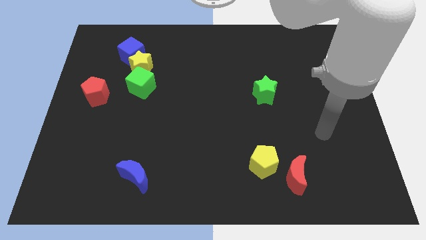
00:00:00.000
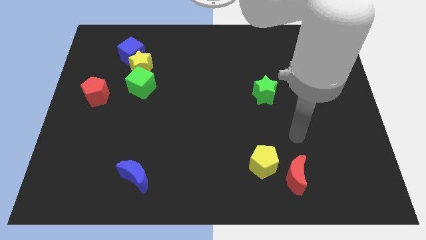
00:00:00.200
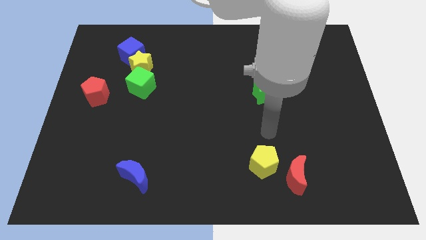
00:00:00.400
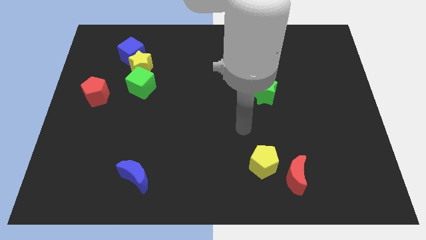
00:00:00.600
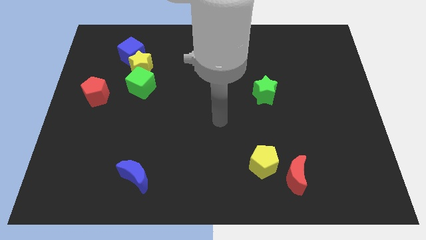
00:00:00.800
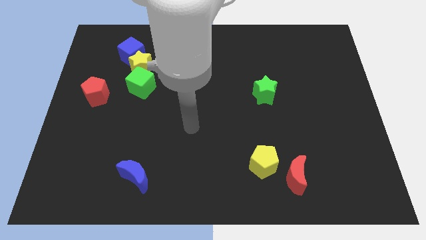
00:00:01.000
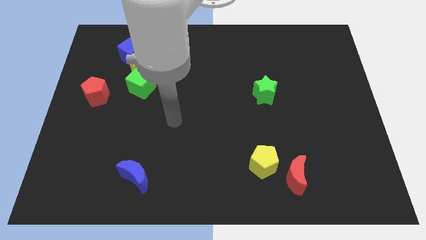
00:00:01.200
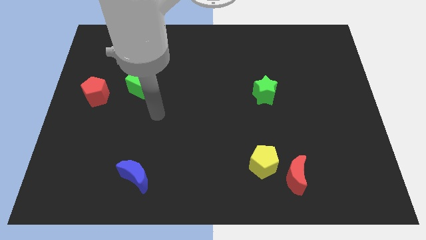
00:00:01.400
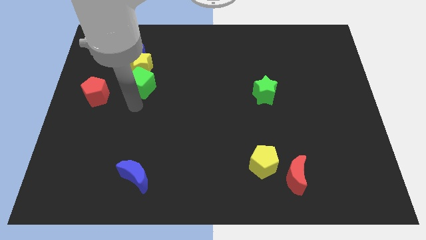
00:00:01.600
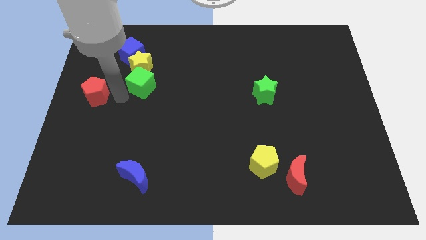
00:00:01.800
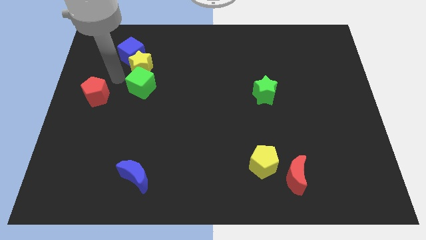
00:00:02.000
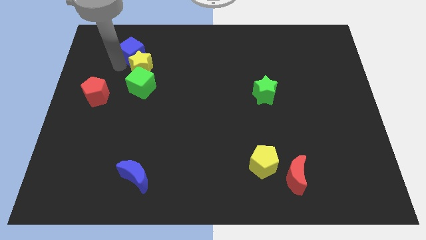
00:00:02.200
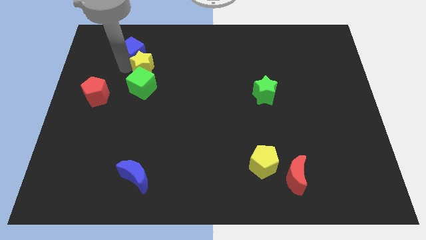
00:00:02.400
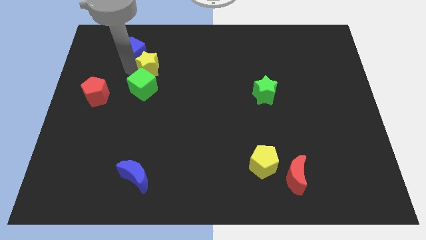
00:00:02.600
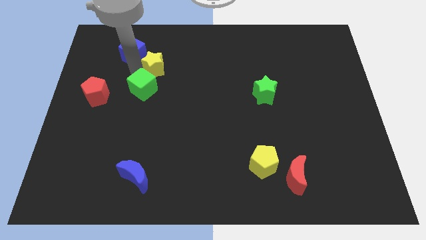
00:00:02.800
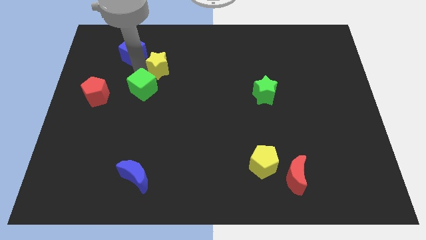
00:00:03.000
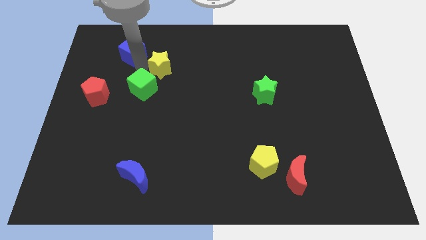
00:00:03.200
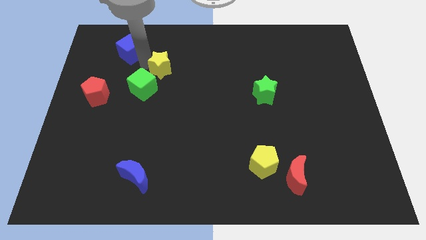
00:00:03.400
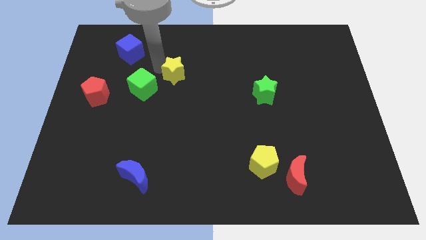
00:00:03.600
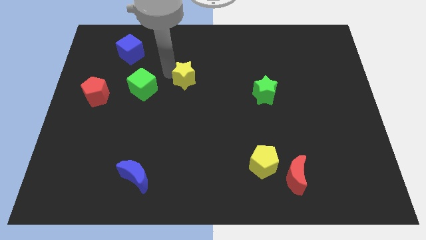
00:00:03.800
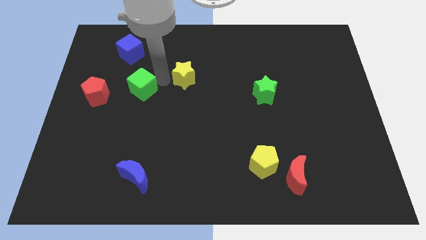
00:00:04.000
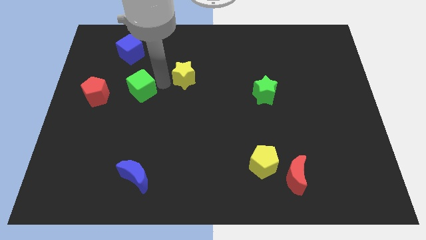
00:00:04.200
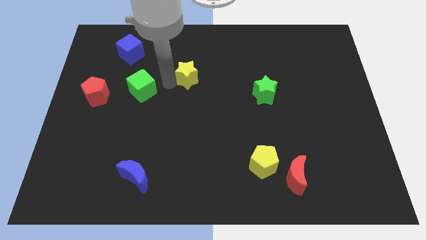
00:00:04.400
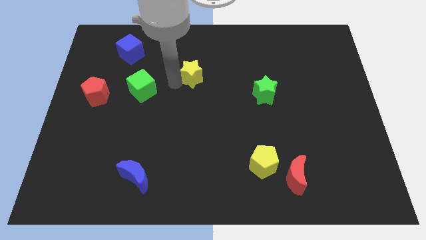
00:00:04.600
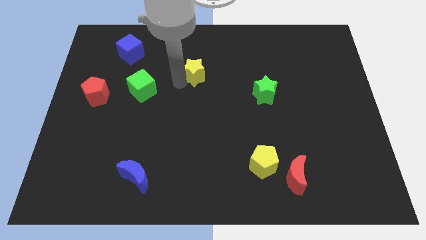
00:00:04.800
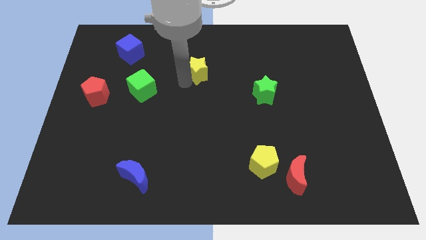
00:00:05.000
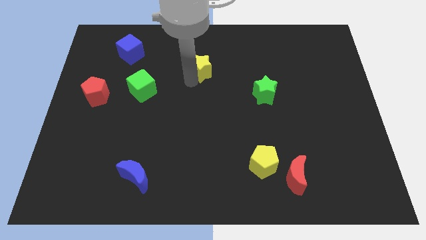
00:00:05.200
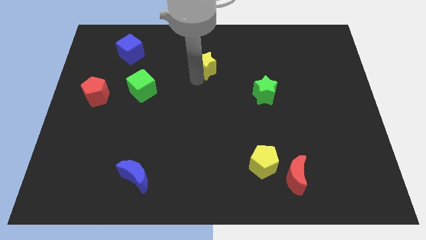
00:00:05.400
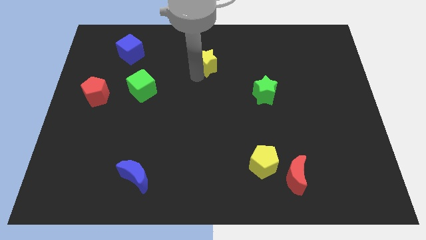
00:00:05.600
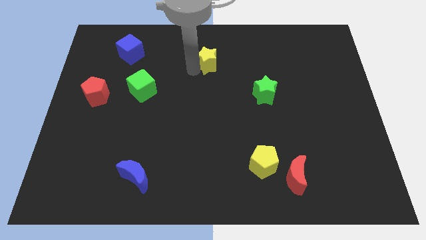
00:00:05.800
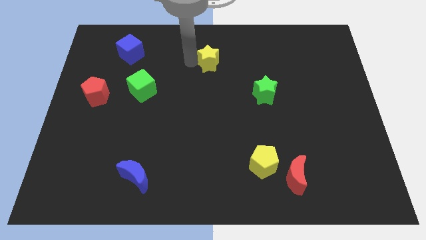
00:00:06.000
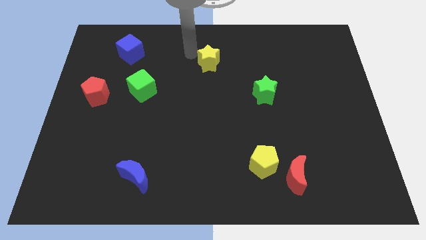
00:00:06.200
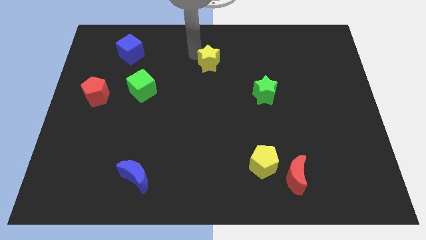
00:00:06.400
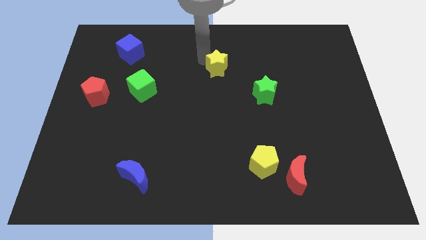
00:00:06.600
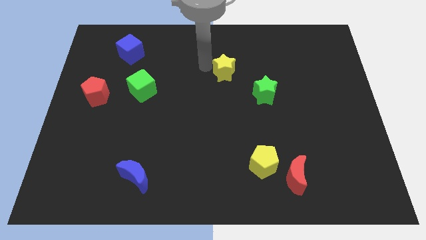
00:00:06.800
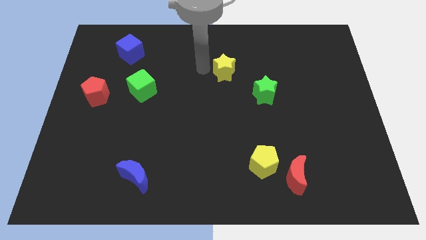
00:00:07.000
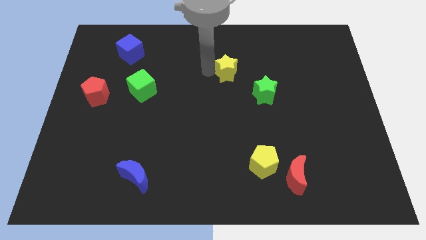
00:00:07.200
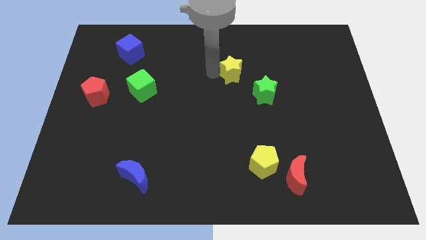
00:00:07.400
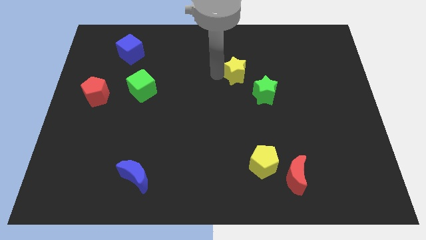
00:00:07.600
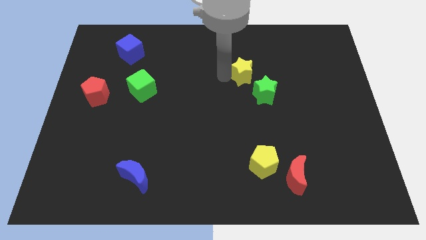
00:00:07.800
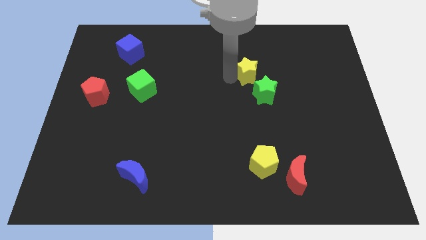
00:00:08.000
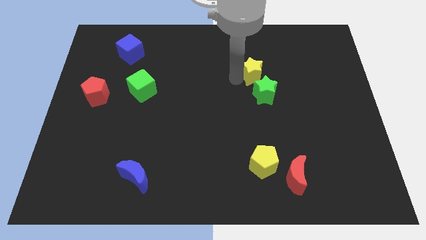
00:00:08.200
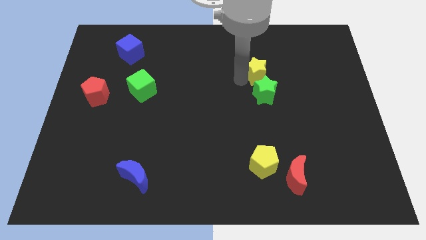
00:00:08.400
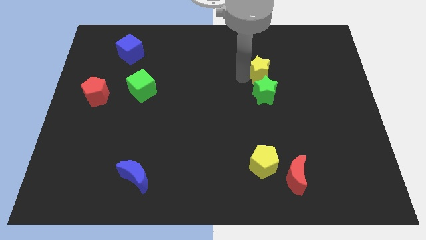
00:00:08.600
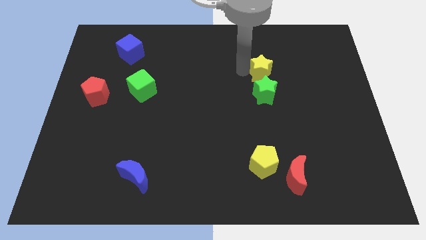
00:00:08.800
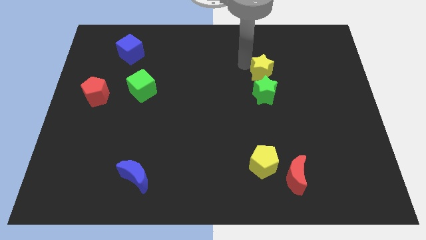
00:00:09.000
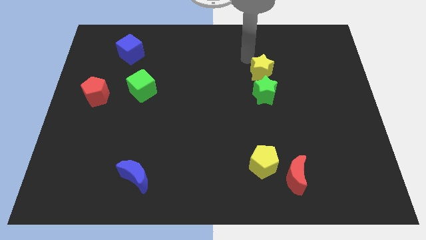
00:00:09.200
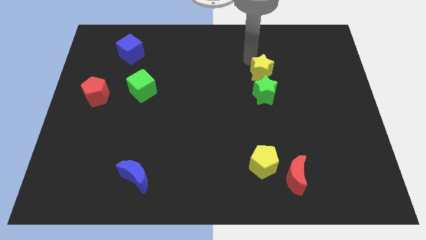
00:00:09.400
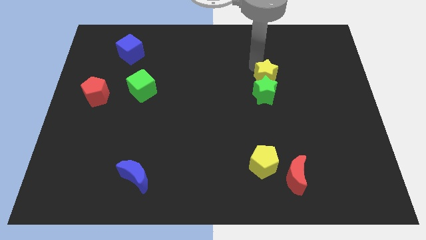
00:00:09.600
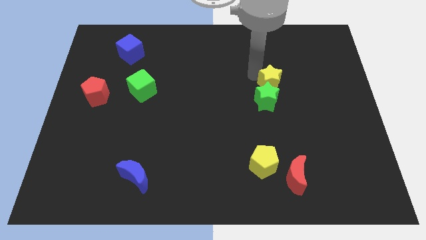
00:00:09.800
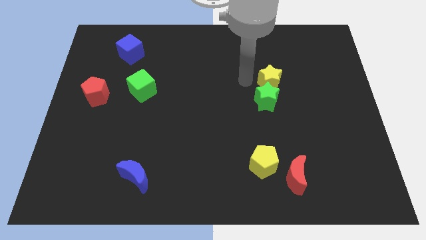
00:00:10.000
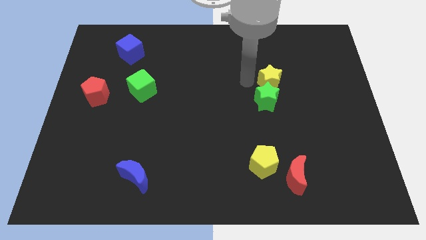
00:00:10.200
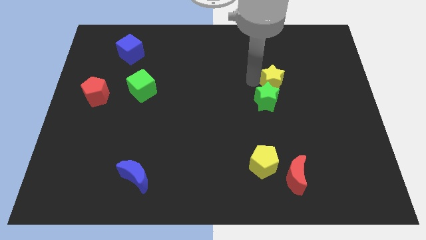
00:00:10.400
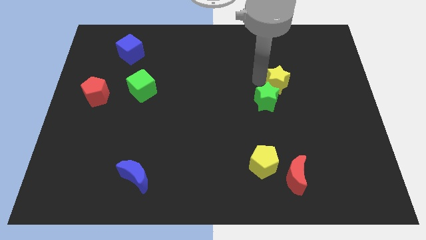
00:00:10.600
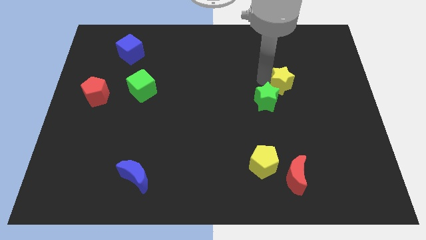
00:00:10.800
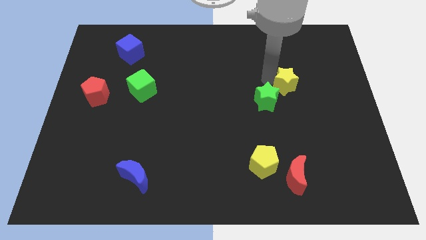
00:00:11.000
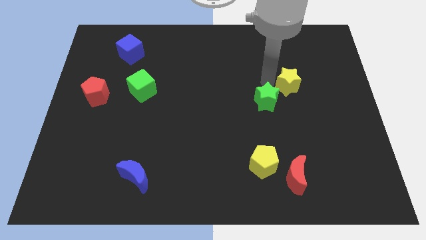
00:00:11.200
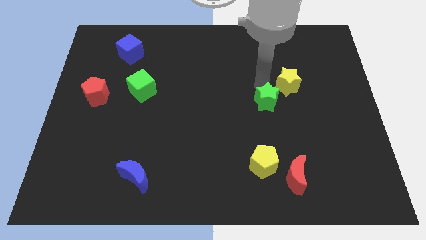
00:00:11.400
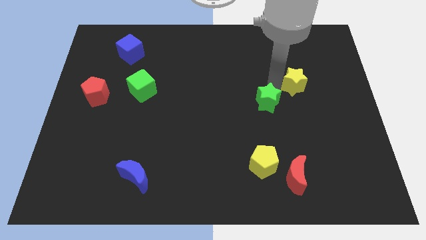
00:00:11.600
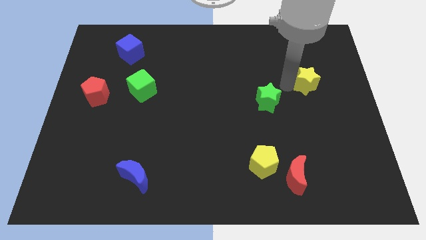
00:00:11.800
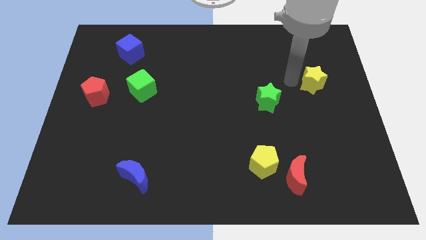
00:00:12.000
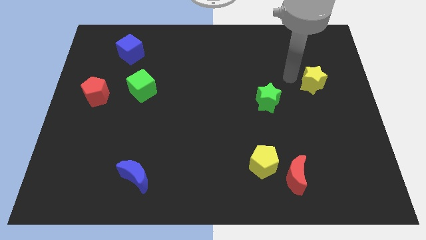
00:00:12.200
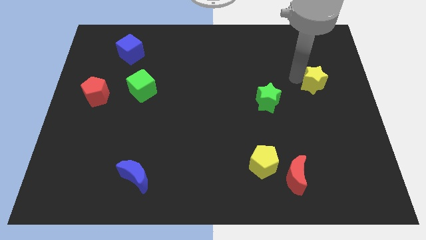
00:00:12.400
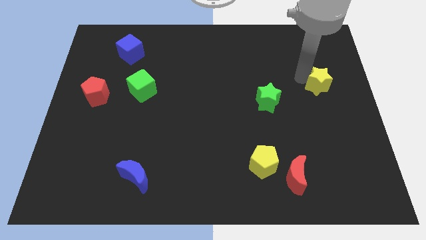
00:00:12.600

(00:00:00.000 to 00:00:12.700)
put the yellow star to the right side of the board
